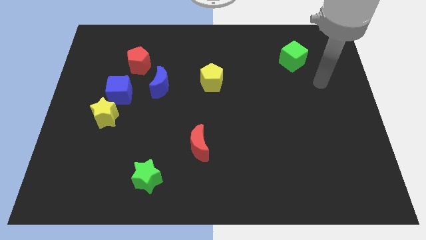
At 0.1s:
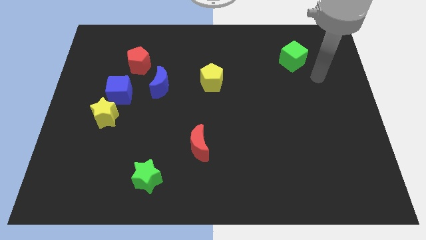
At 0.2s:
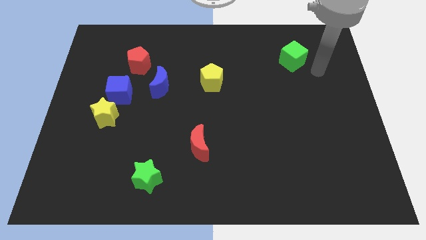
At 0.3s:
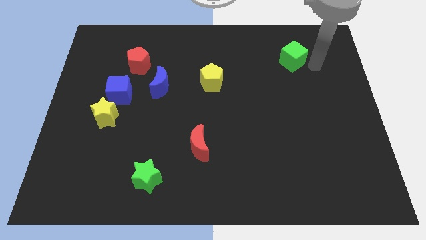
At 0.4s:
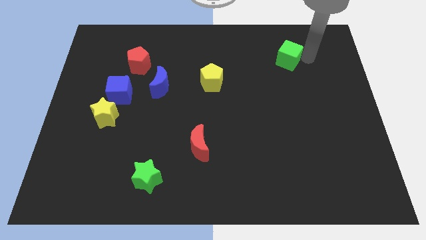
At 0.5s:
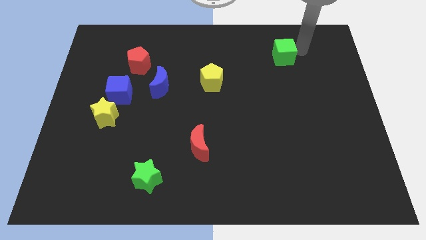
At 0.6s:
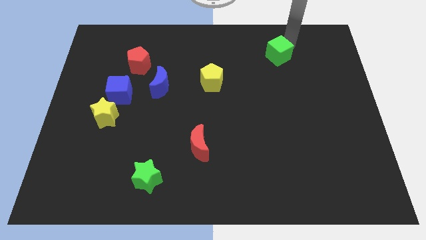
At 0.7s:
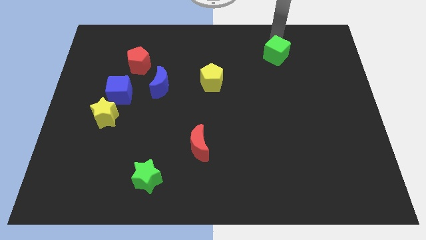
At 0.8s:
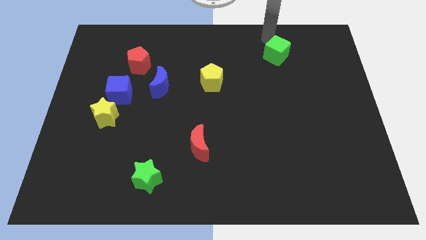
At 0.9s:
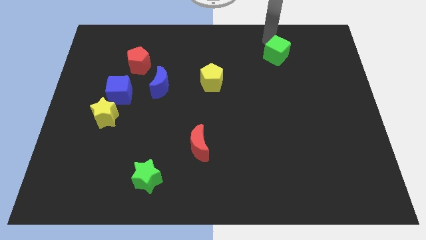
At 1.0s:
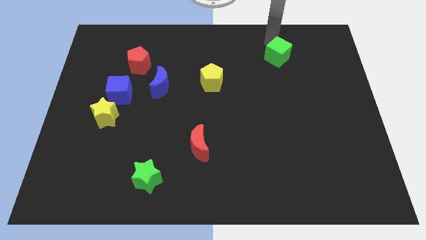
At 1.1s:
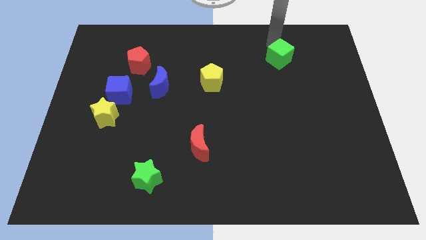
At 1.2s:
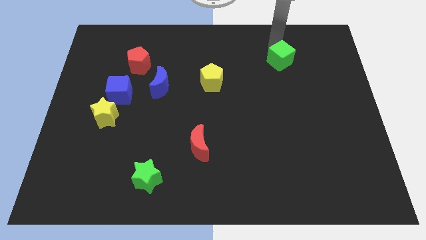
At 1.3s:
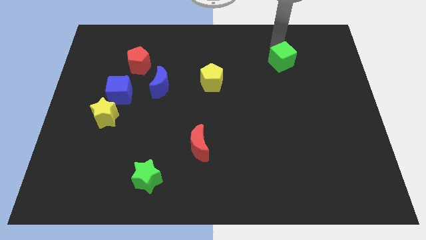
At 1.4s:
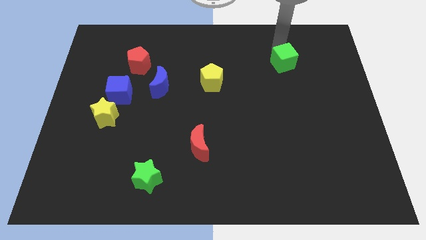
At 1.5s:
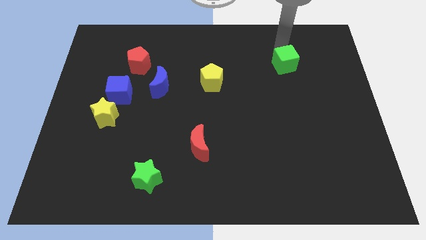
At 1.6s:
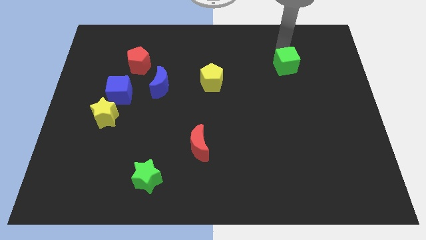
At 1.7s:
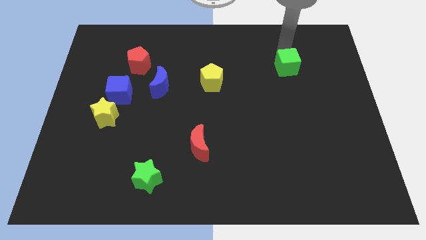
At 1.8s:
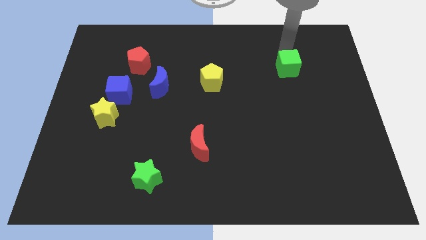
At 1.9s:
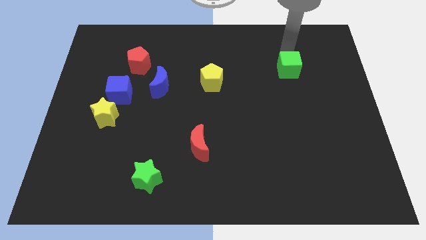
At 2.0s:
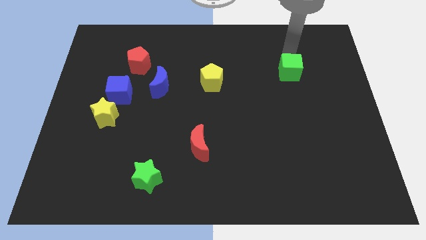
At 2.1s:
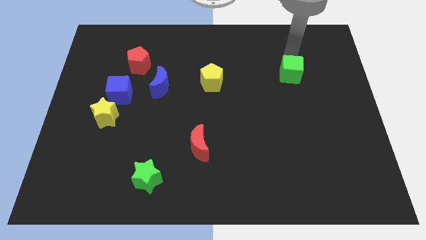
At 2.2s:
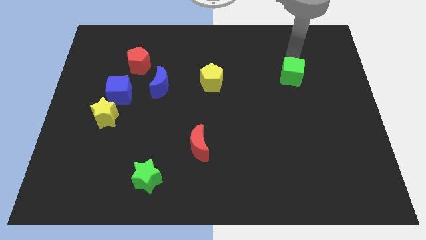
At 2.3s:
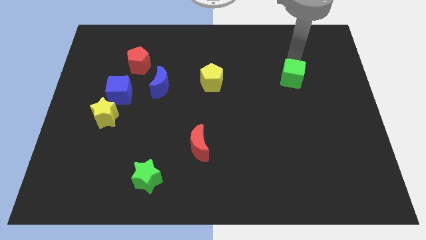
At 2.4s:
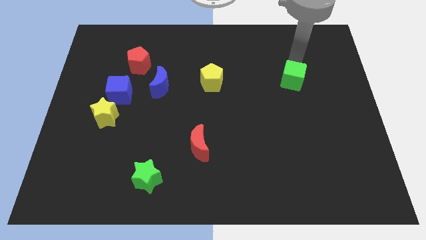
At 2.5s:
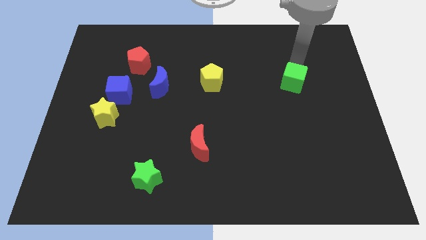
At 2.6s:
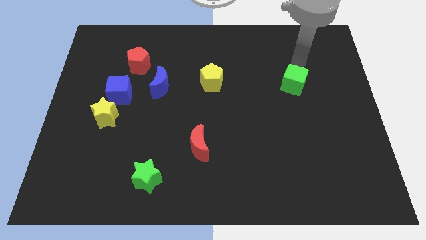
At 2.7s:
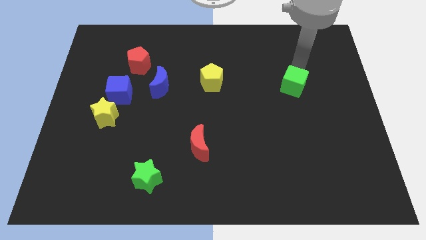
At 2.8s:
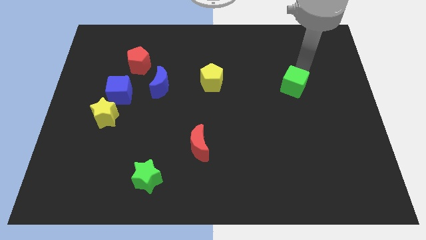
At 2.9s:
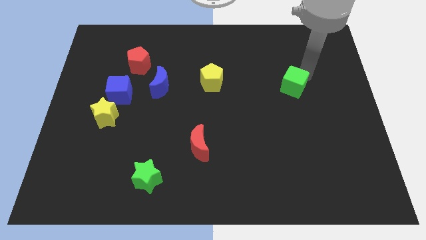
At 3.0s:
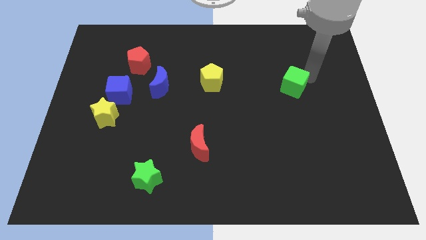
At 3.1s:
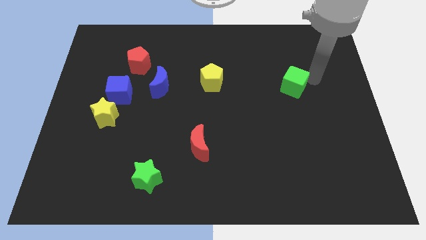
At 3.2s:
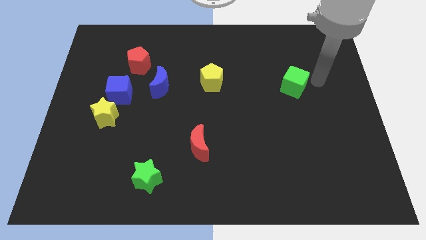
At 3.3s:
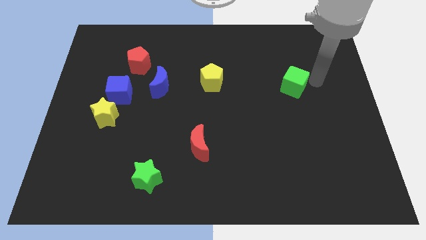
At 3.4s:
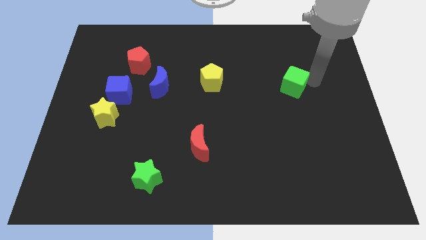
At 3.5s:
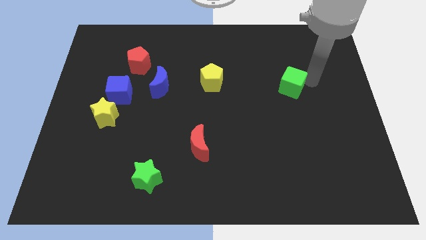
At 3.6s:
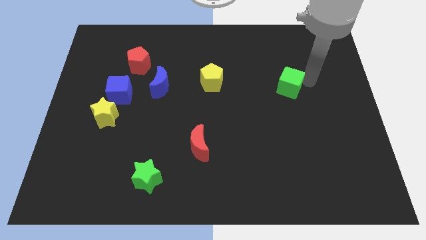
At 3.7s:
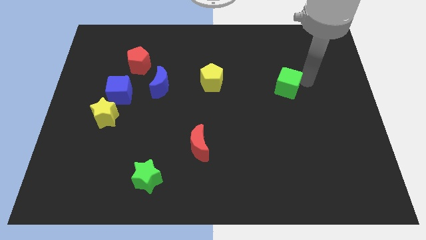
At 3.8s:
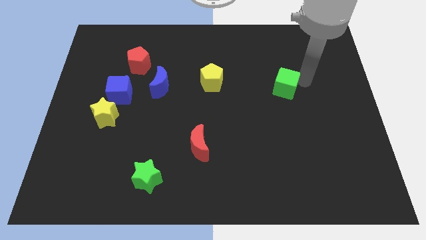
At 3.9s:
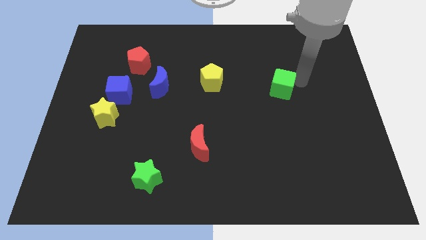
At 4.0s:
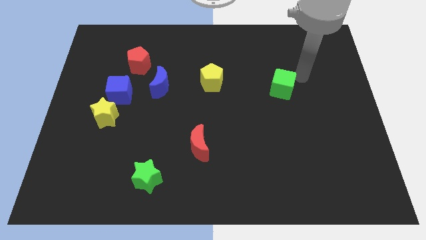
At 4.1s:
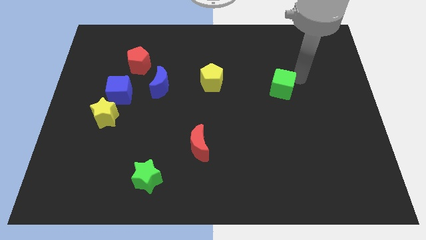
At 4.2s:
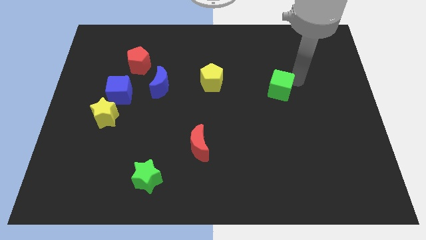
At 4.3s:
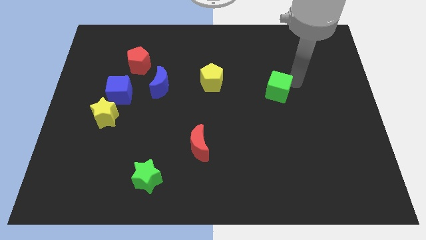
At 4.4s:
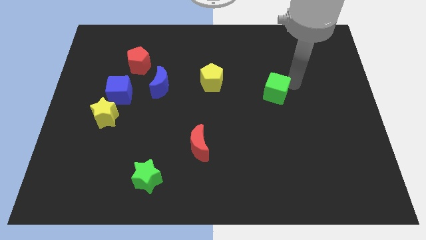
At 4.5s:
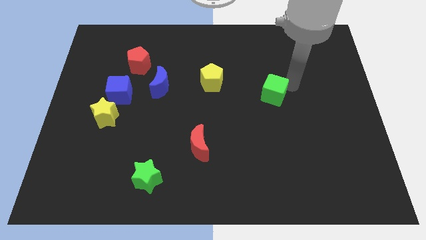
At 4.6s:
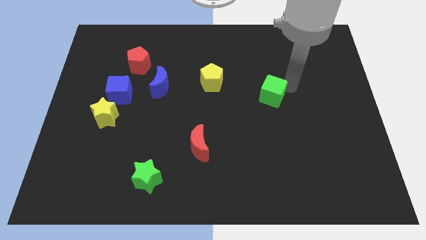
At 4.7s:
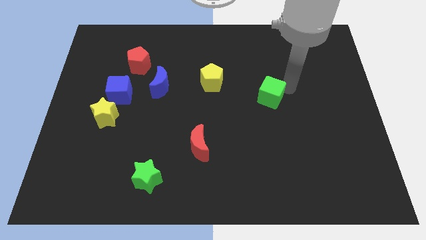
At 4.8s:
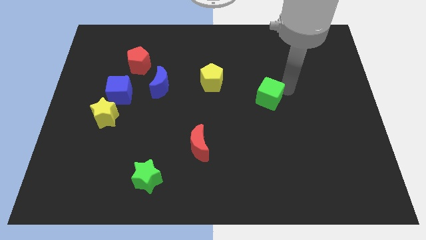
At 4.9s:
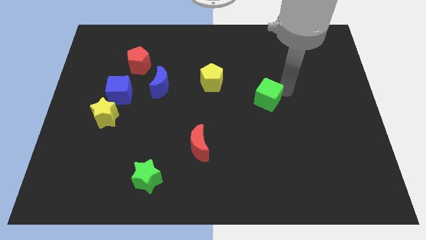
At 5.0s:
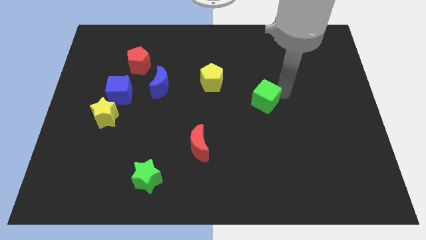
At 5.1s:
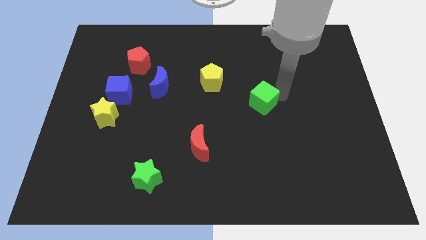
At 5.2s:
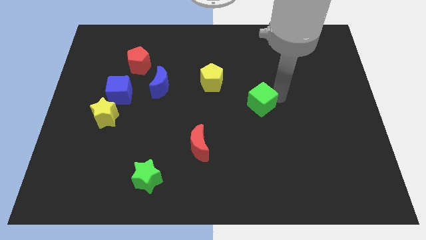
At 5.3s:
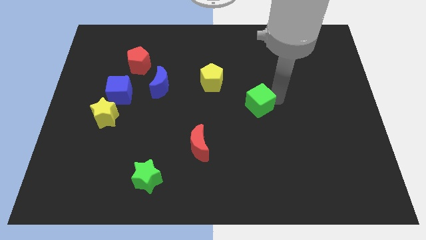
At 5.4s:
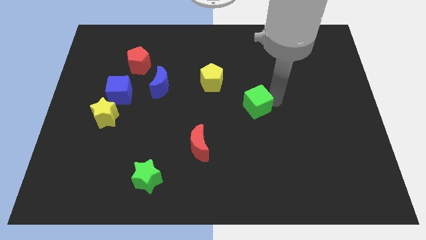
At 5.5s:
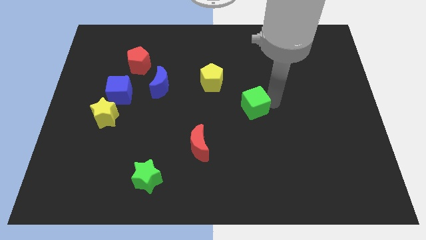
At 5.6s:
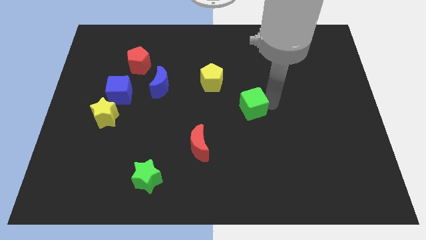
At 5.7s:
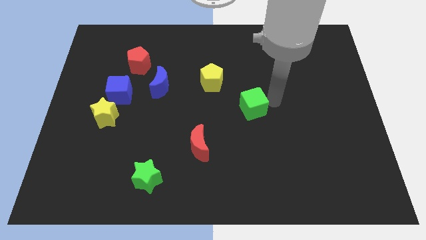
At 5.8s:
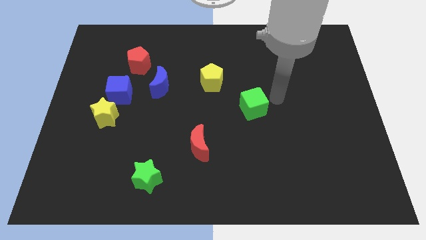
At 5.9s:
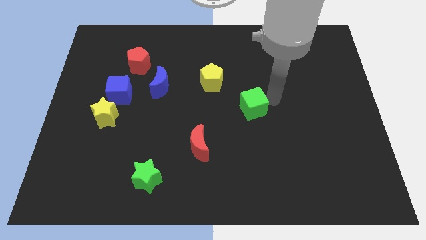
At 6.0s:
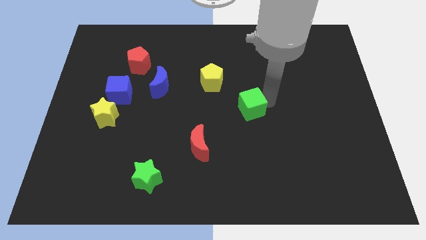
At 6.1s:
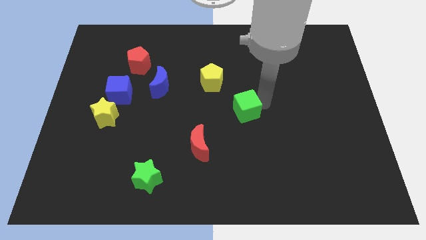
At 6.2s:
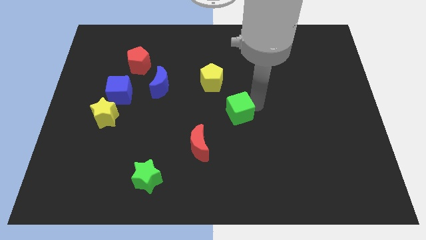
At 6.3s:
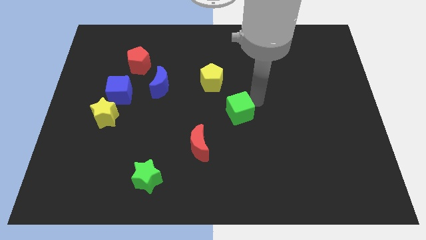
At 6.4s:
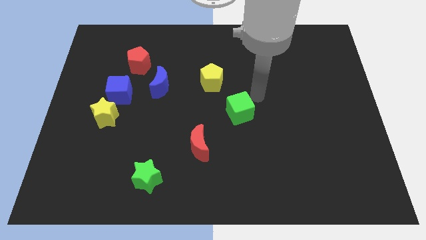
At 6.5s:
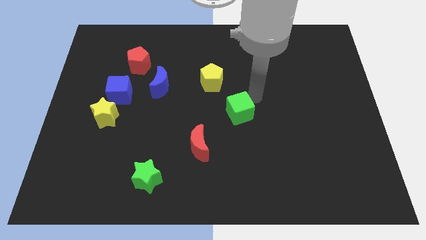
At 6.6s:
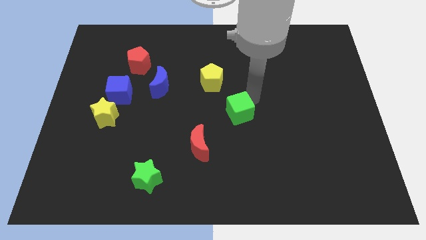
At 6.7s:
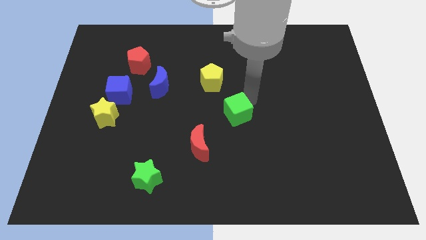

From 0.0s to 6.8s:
put the green cube diagonally up and to the right of the red moon

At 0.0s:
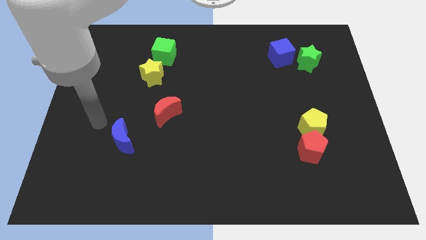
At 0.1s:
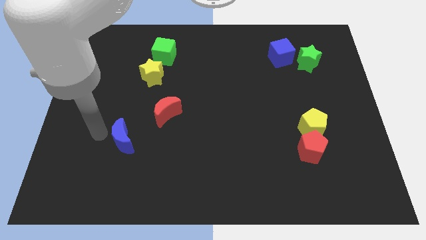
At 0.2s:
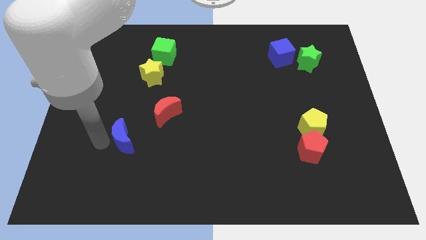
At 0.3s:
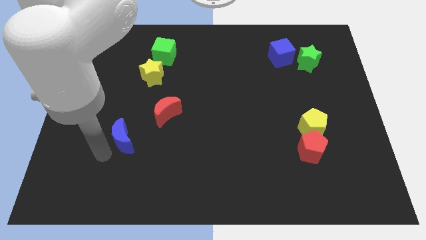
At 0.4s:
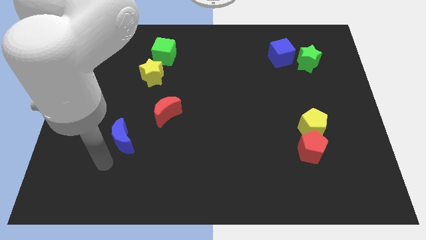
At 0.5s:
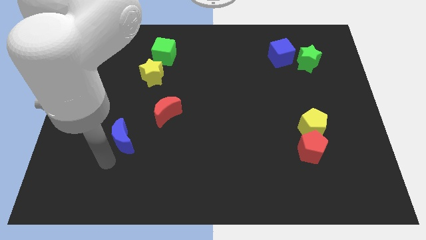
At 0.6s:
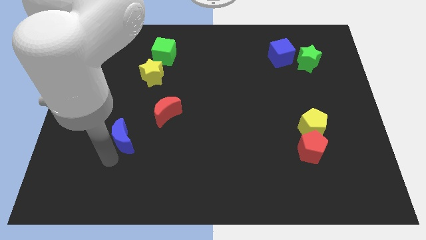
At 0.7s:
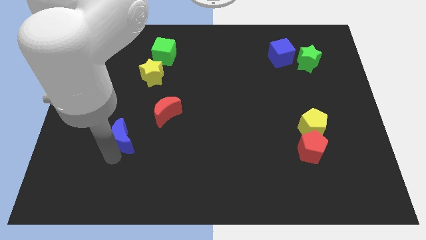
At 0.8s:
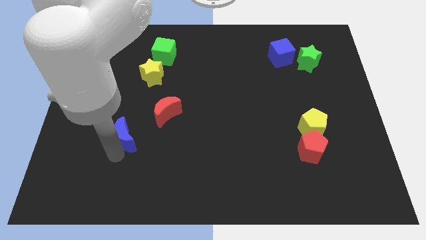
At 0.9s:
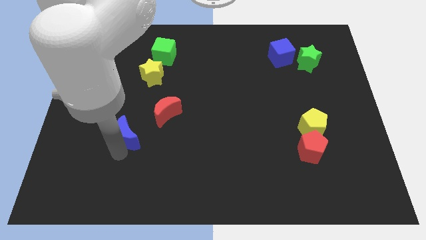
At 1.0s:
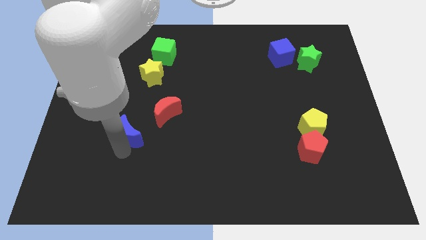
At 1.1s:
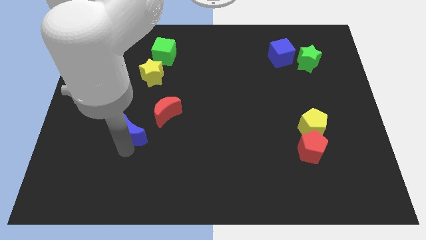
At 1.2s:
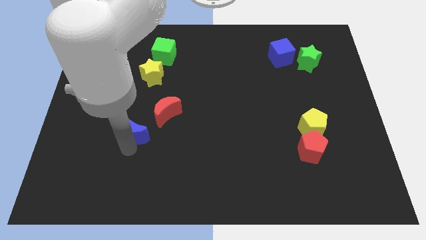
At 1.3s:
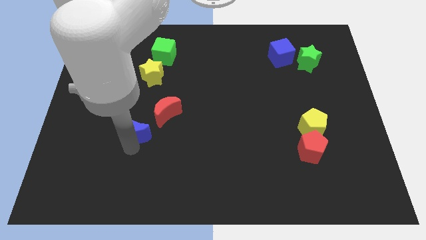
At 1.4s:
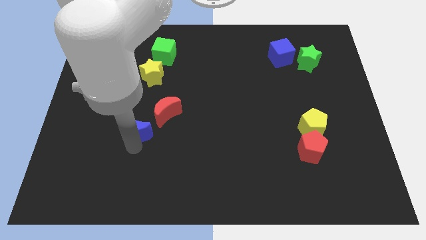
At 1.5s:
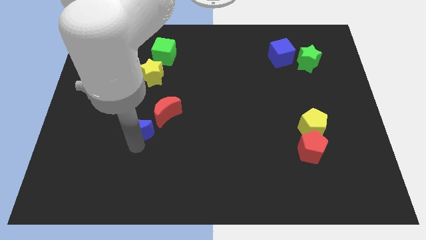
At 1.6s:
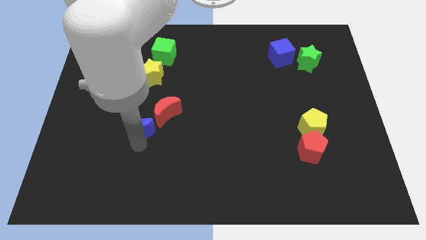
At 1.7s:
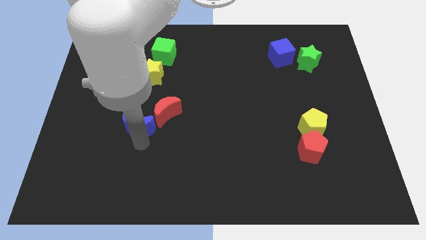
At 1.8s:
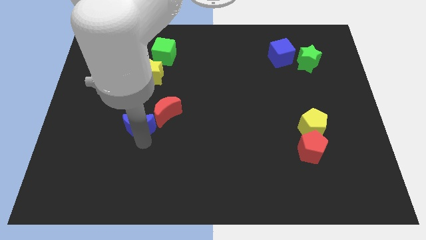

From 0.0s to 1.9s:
put the blue moon below the yellow star

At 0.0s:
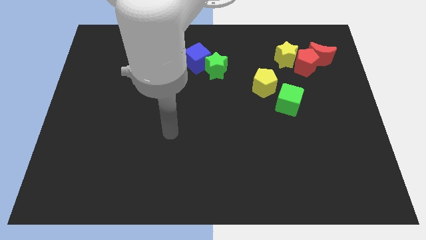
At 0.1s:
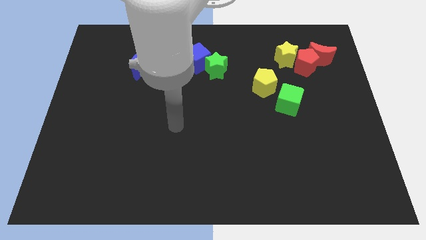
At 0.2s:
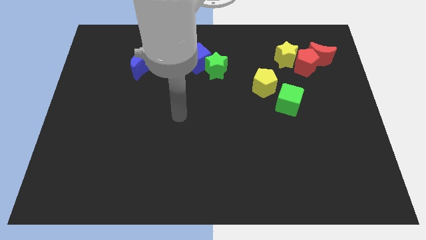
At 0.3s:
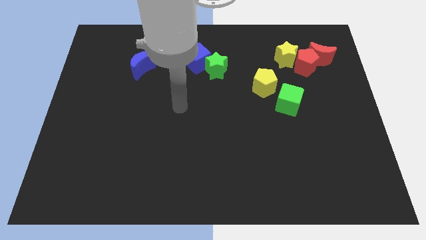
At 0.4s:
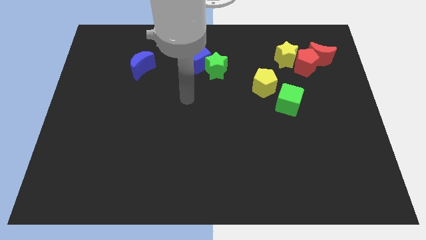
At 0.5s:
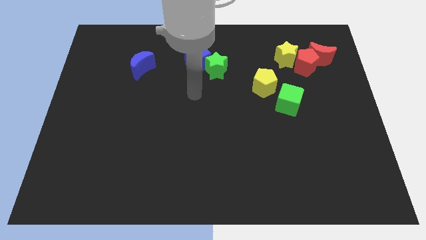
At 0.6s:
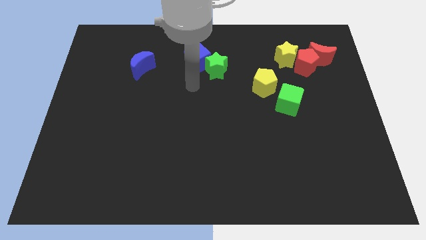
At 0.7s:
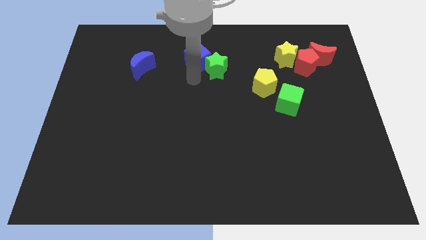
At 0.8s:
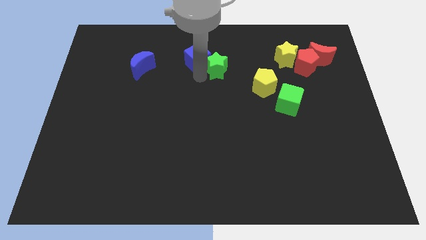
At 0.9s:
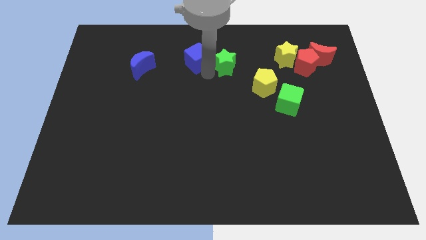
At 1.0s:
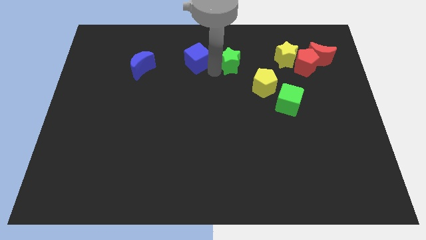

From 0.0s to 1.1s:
push the green star left of the yellow star
